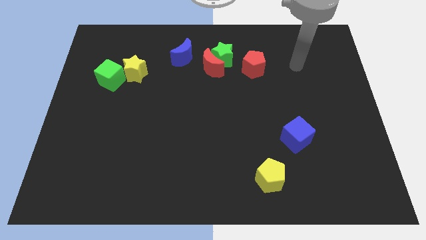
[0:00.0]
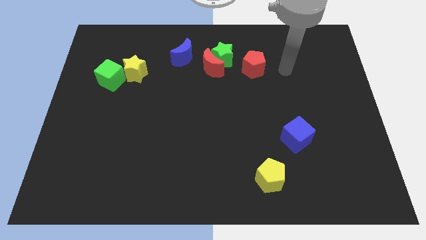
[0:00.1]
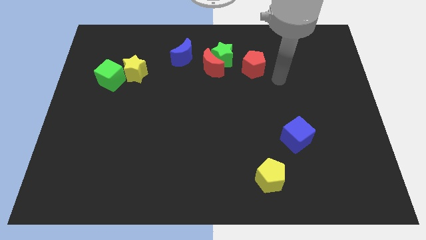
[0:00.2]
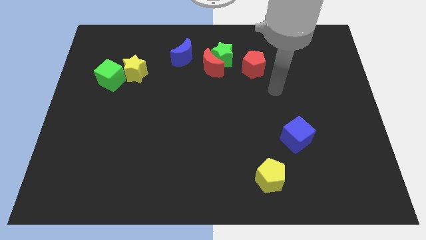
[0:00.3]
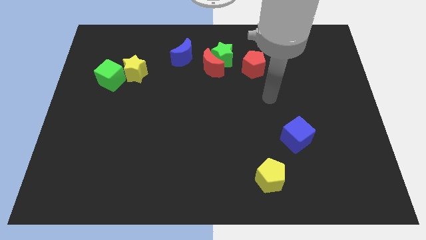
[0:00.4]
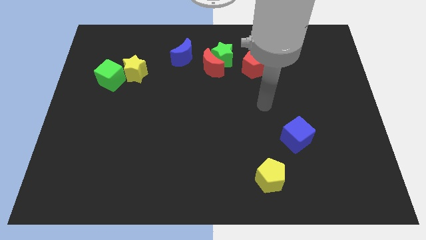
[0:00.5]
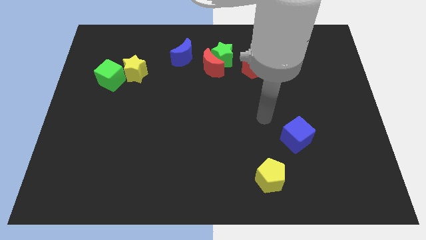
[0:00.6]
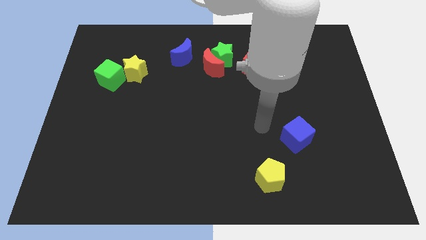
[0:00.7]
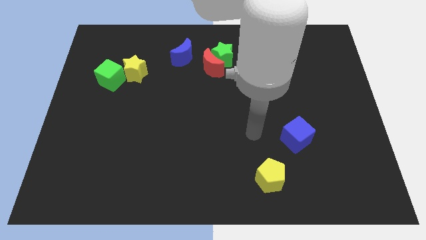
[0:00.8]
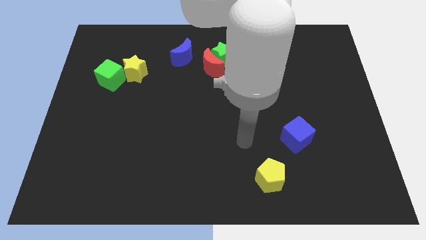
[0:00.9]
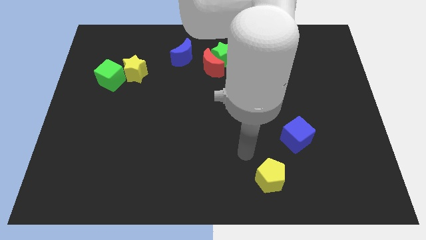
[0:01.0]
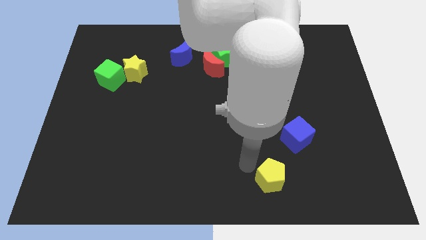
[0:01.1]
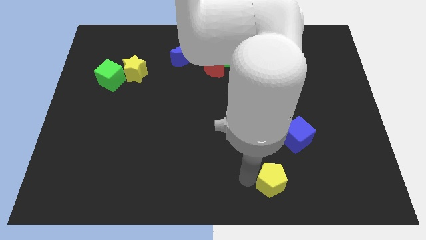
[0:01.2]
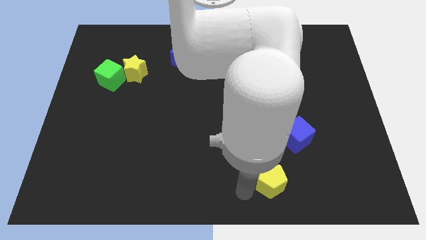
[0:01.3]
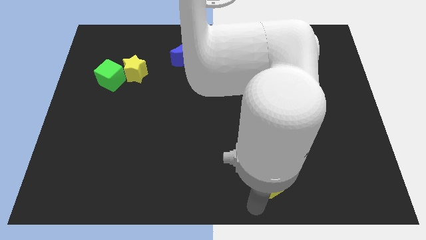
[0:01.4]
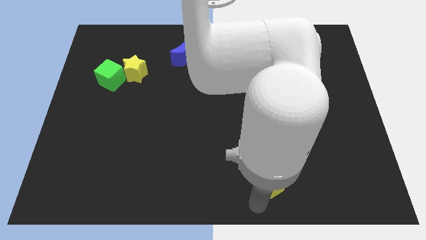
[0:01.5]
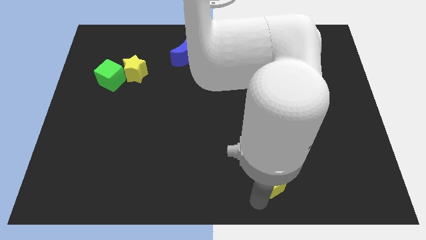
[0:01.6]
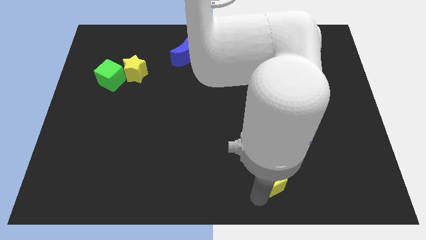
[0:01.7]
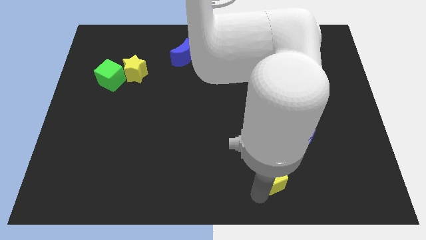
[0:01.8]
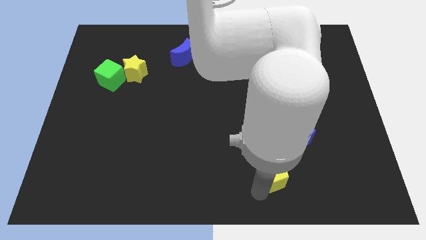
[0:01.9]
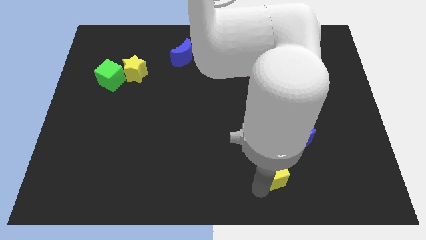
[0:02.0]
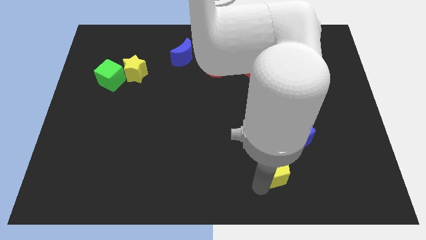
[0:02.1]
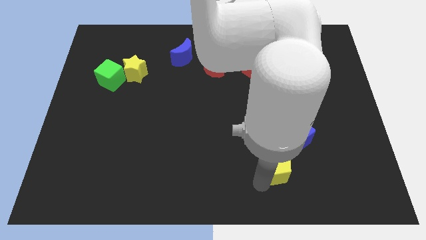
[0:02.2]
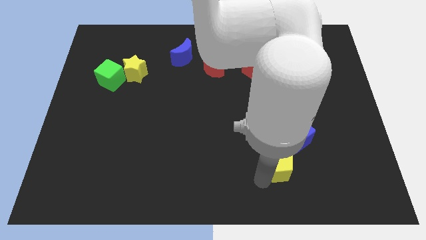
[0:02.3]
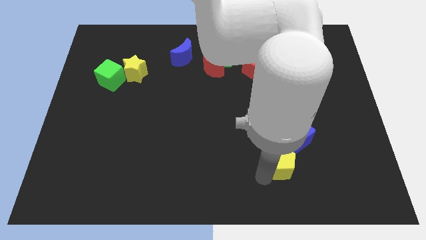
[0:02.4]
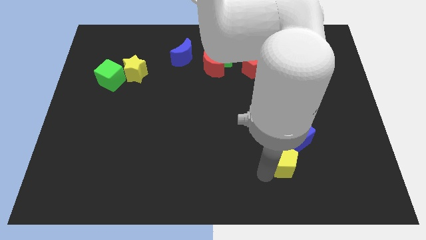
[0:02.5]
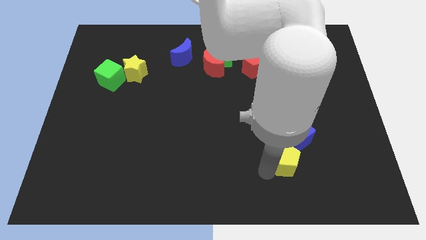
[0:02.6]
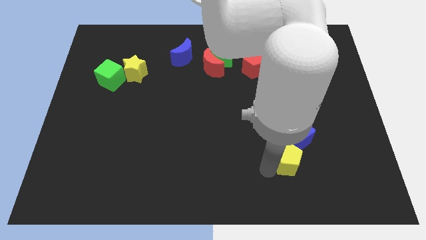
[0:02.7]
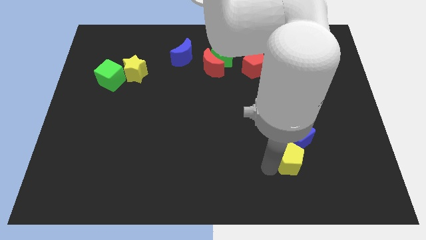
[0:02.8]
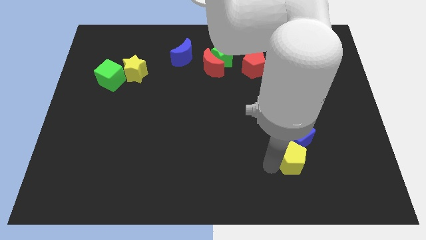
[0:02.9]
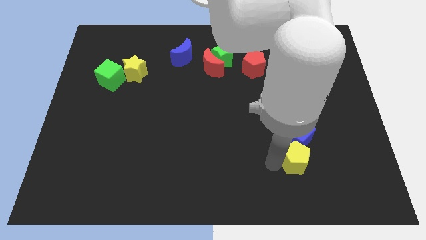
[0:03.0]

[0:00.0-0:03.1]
push the yellow pentagon up and to the right a bit

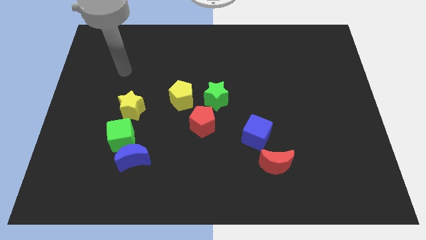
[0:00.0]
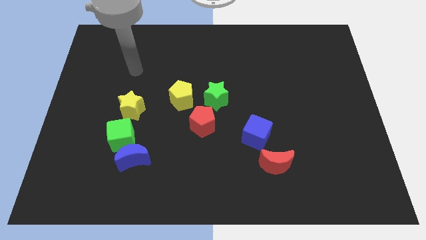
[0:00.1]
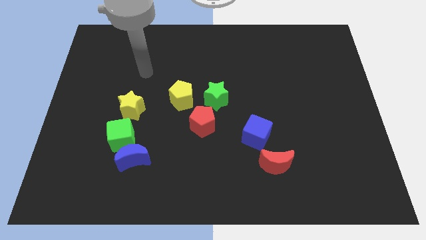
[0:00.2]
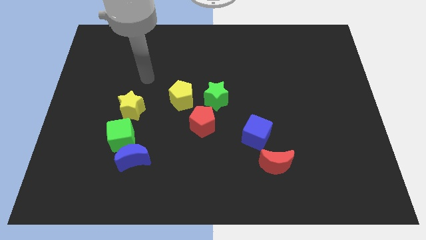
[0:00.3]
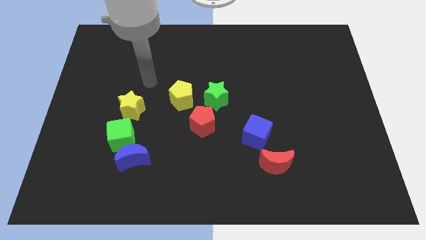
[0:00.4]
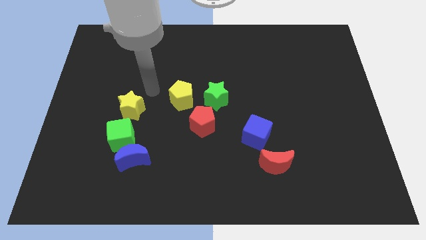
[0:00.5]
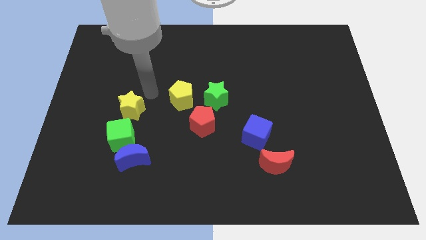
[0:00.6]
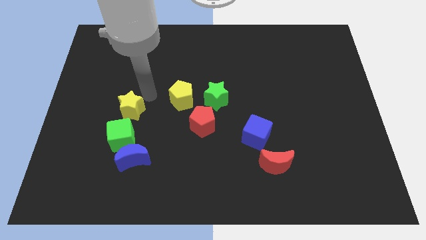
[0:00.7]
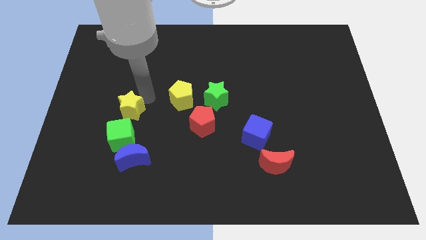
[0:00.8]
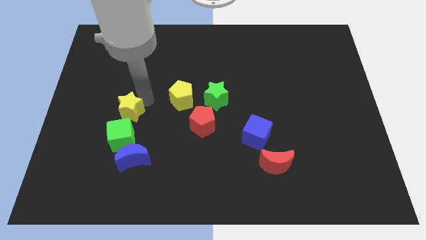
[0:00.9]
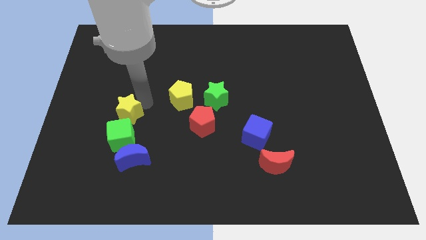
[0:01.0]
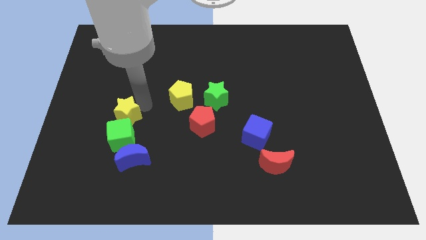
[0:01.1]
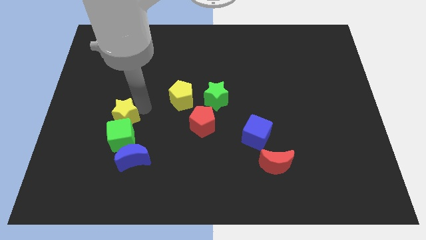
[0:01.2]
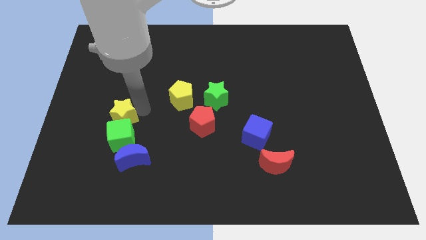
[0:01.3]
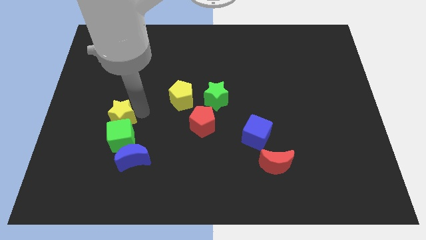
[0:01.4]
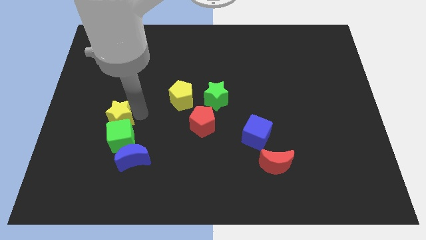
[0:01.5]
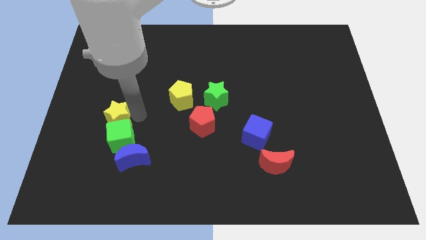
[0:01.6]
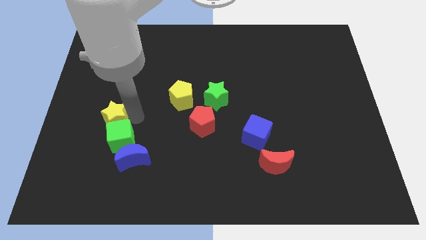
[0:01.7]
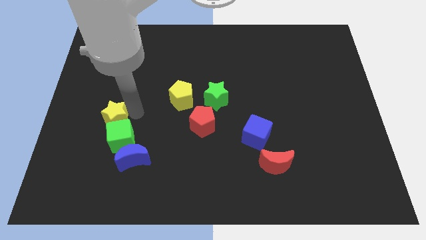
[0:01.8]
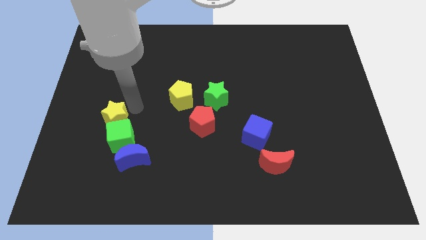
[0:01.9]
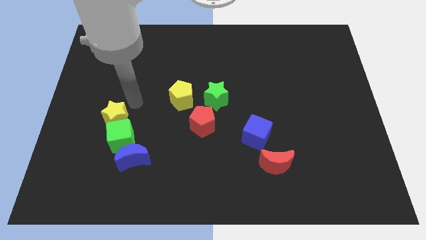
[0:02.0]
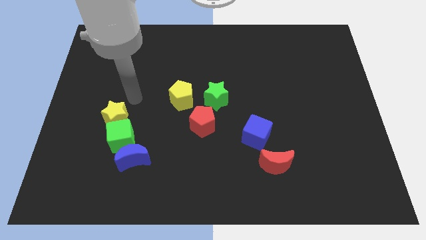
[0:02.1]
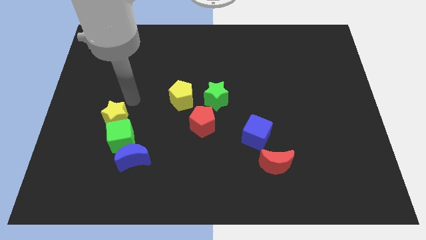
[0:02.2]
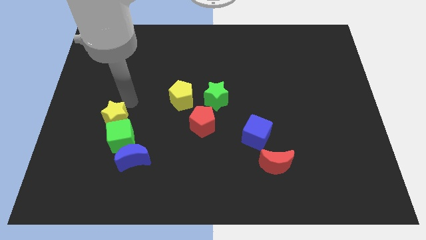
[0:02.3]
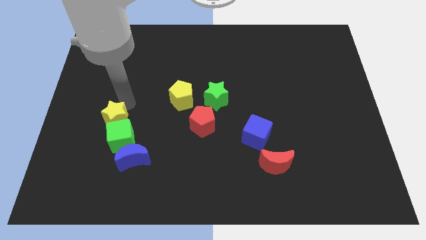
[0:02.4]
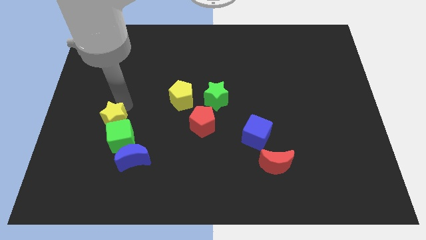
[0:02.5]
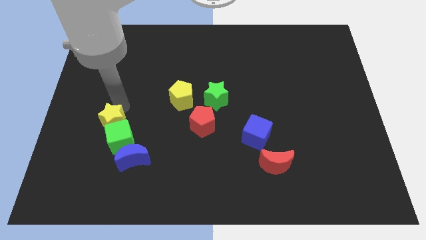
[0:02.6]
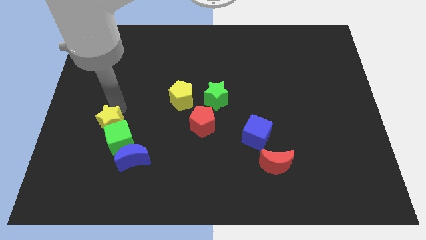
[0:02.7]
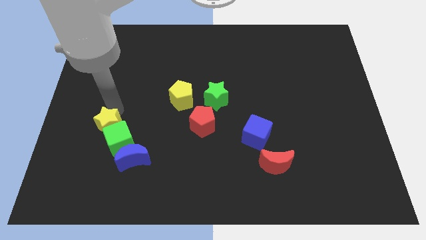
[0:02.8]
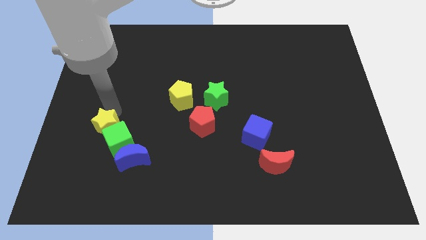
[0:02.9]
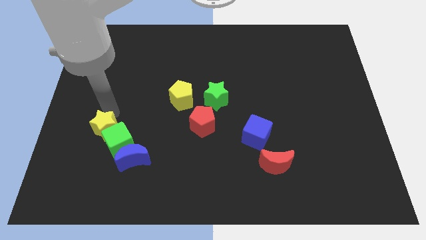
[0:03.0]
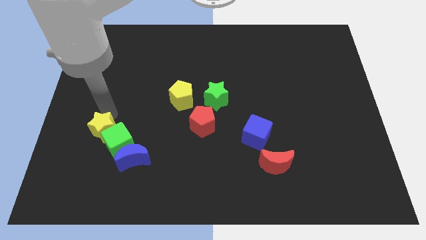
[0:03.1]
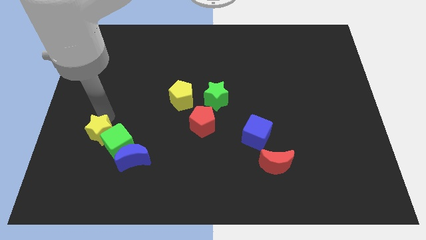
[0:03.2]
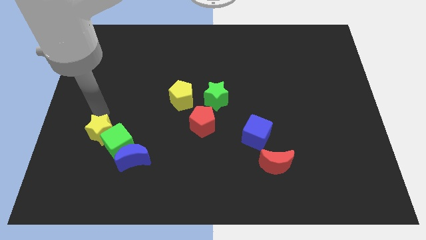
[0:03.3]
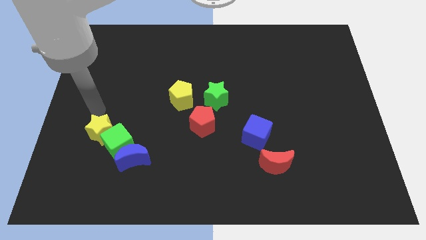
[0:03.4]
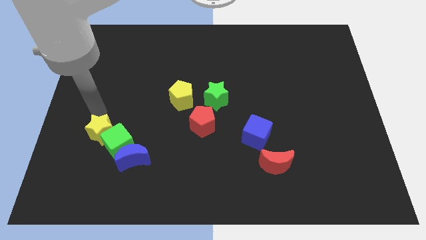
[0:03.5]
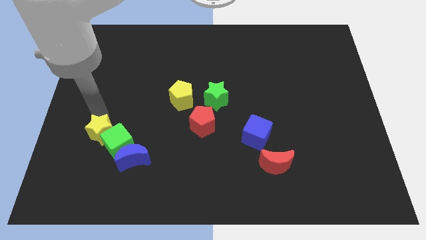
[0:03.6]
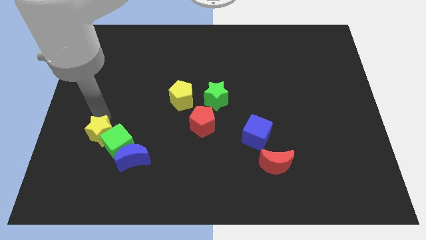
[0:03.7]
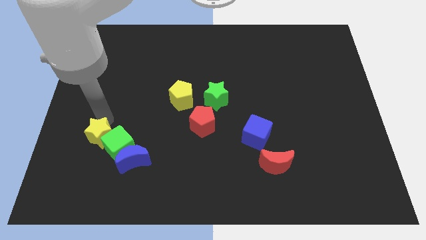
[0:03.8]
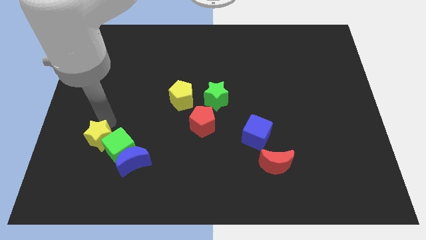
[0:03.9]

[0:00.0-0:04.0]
slide the yellow star down a little bit

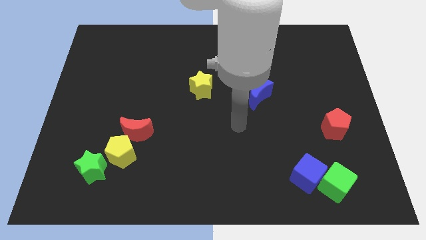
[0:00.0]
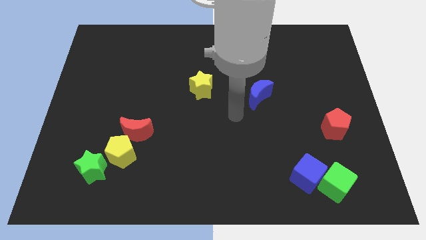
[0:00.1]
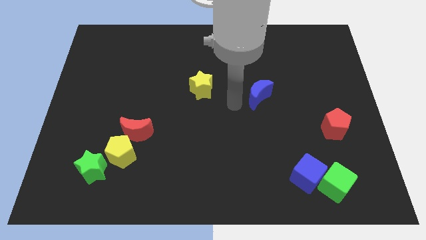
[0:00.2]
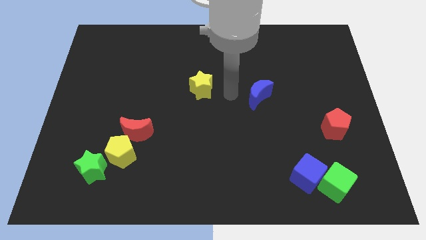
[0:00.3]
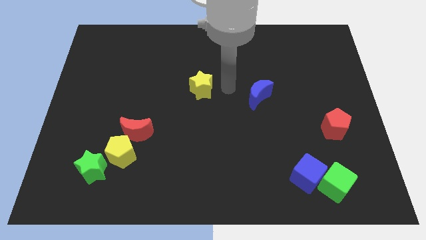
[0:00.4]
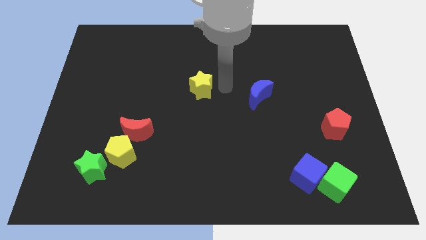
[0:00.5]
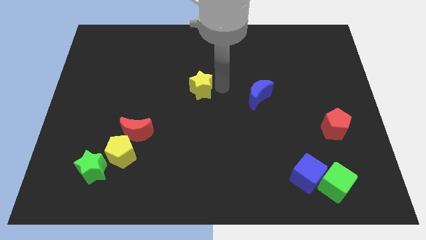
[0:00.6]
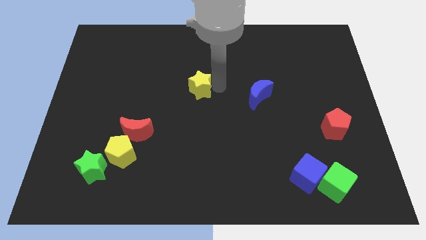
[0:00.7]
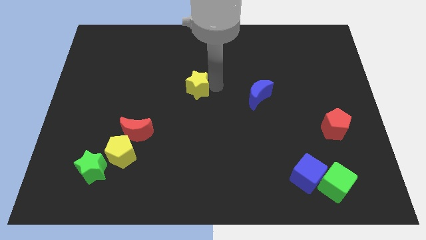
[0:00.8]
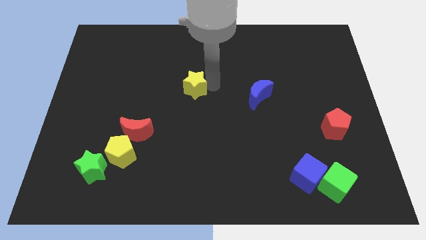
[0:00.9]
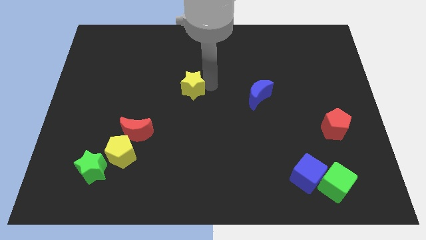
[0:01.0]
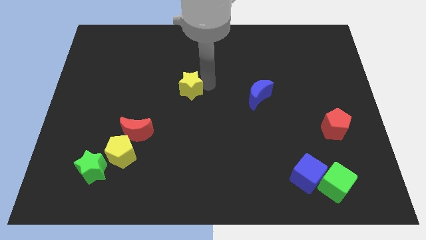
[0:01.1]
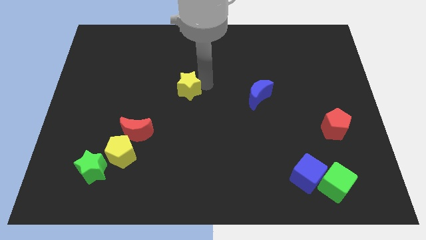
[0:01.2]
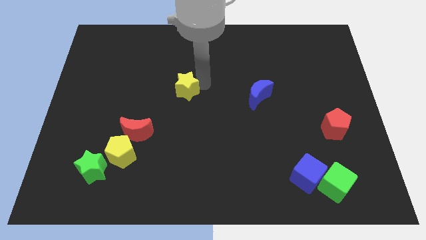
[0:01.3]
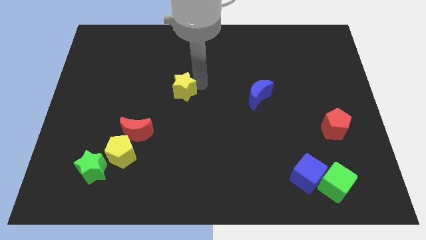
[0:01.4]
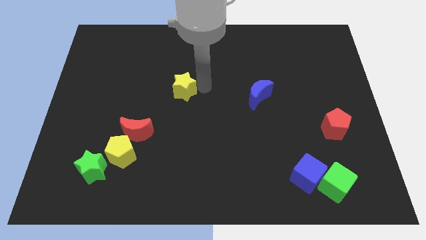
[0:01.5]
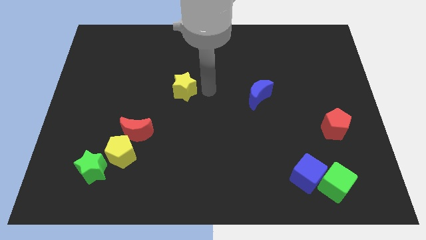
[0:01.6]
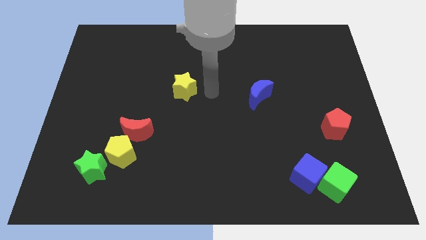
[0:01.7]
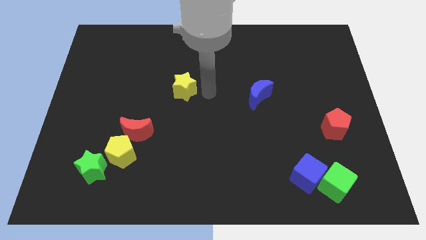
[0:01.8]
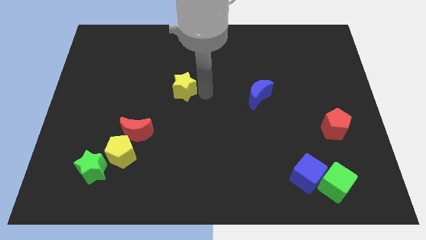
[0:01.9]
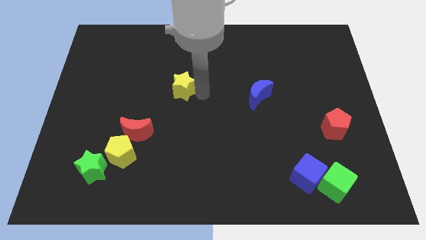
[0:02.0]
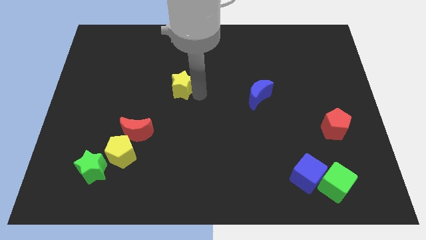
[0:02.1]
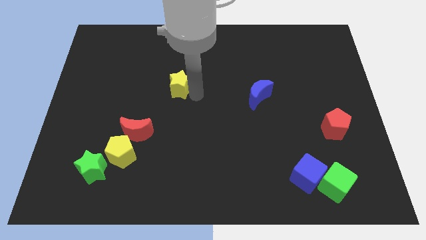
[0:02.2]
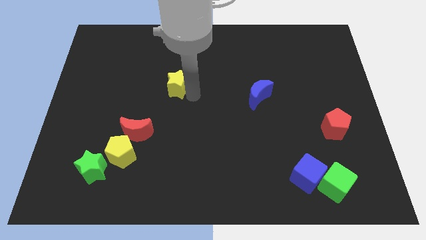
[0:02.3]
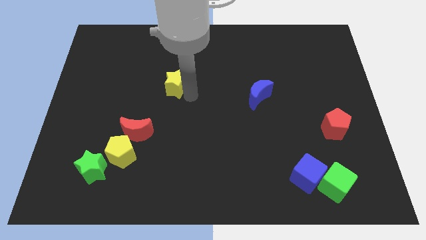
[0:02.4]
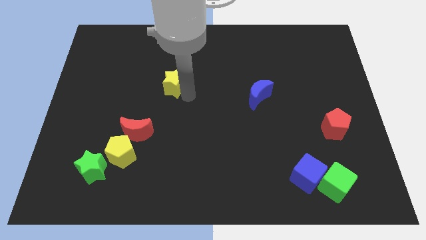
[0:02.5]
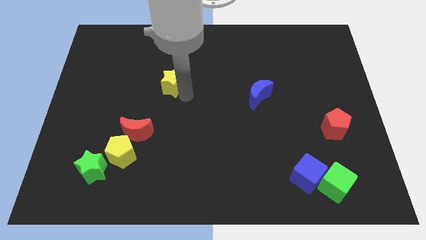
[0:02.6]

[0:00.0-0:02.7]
slightly push the yellow star to the left
